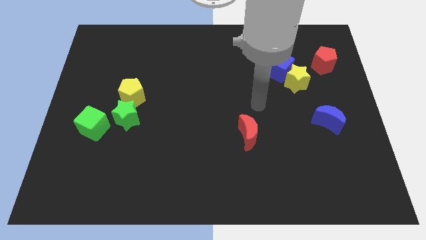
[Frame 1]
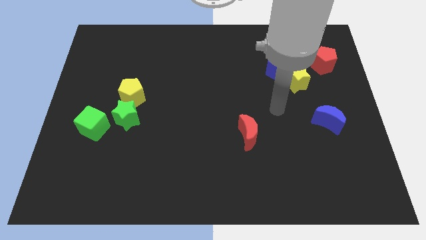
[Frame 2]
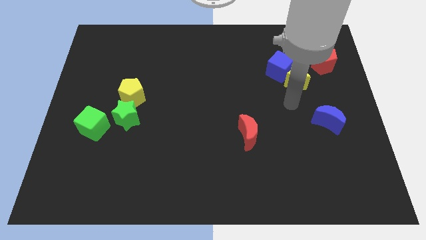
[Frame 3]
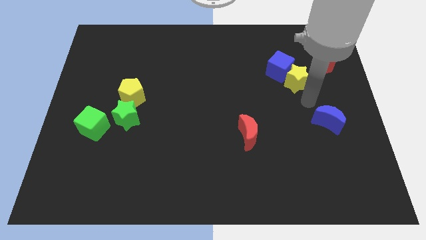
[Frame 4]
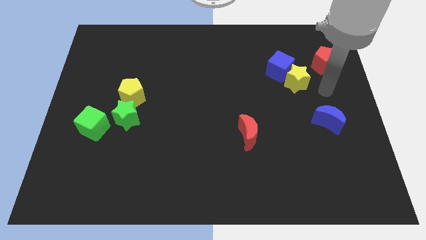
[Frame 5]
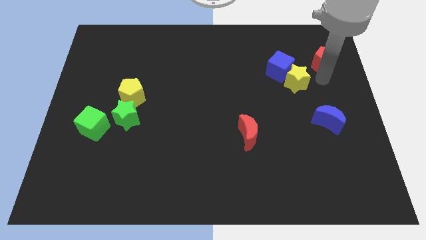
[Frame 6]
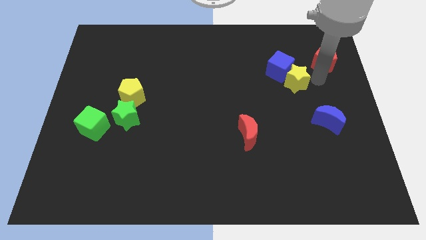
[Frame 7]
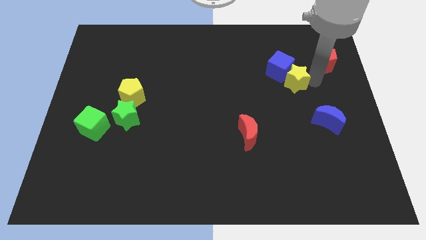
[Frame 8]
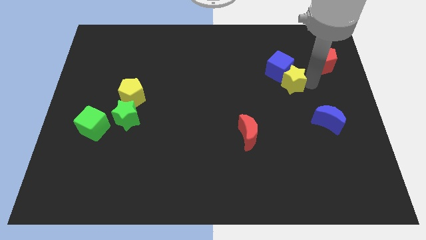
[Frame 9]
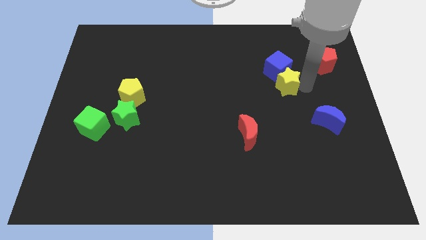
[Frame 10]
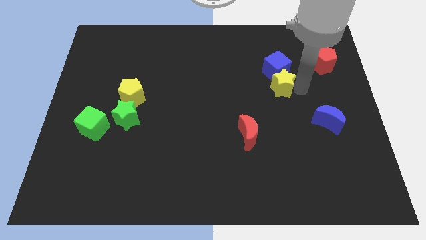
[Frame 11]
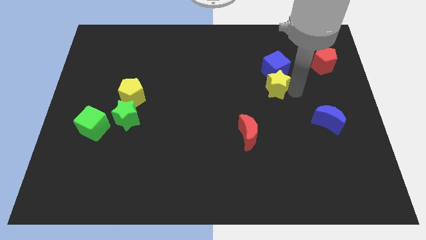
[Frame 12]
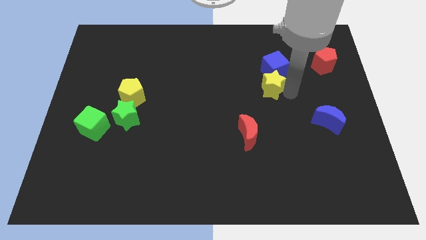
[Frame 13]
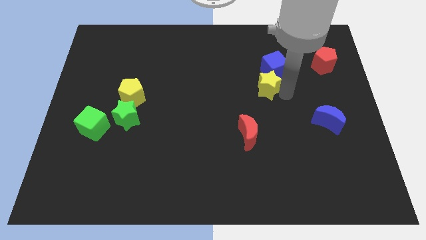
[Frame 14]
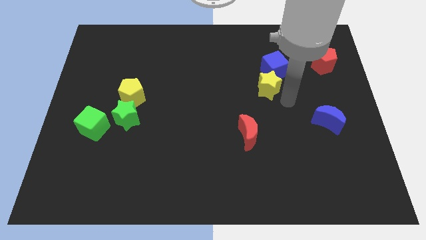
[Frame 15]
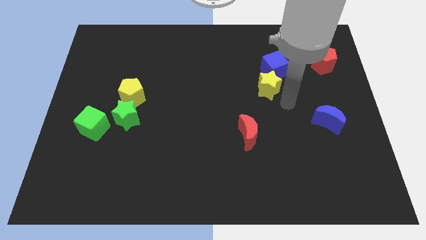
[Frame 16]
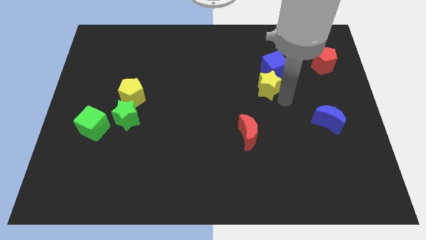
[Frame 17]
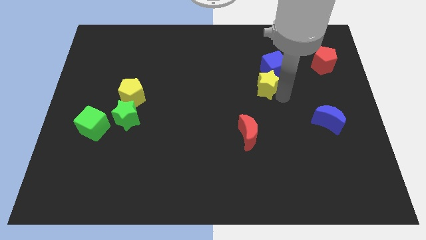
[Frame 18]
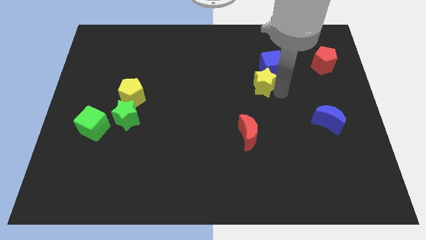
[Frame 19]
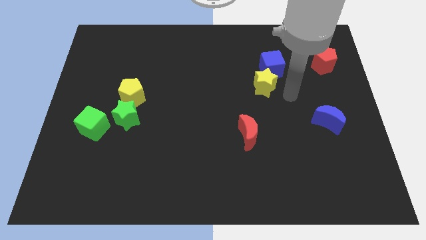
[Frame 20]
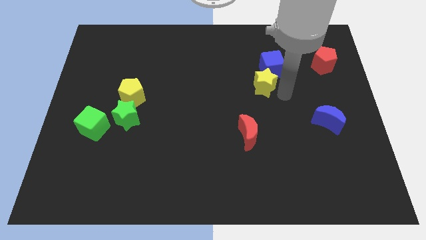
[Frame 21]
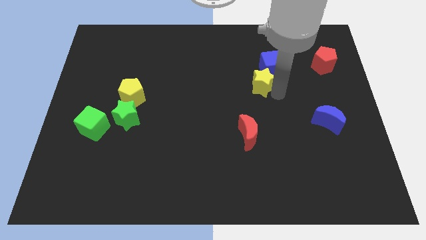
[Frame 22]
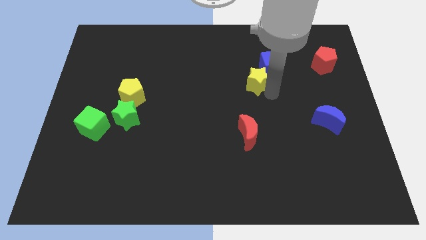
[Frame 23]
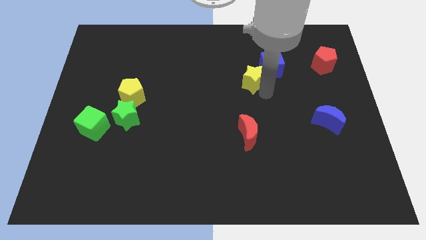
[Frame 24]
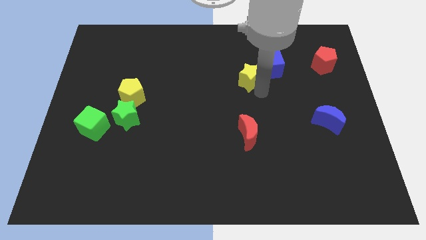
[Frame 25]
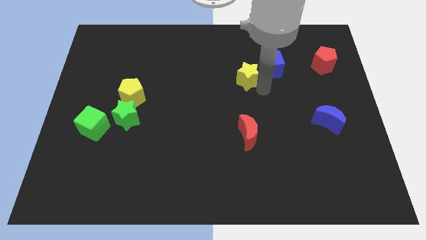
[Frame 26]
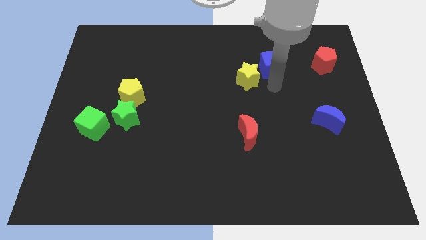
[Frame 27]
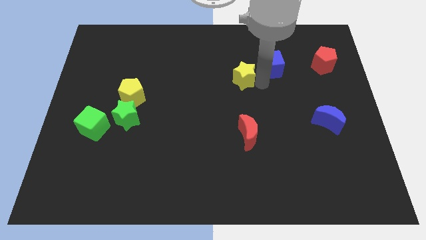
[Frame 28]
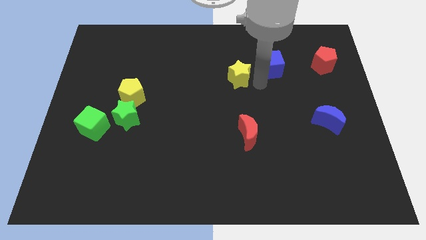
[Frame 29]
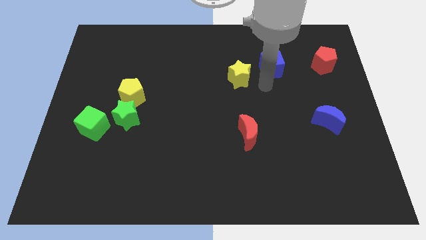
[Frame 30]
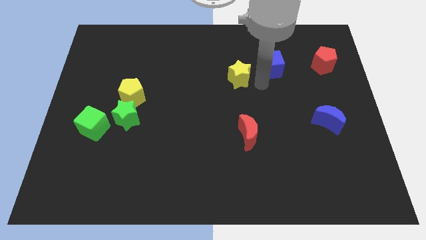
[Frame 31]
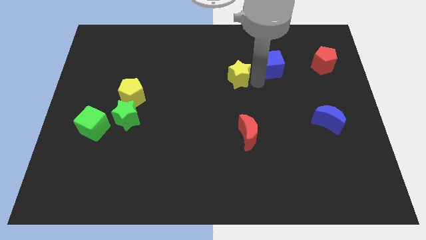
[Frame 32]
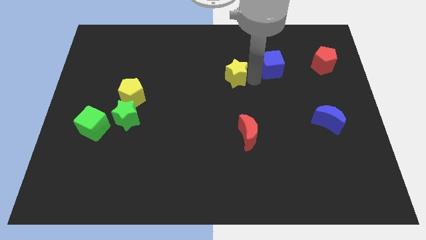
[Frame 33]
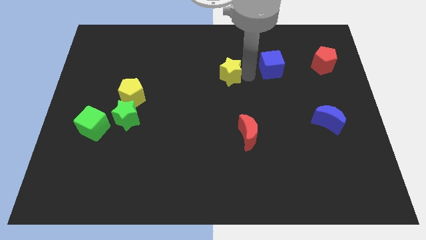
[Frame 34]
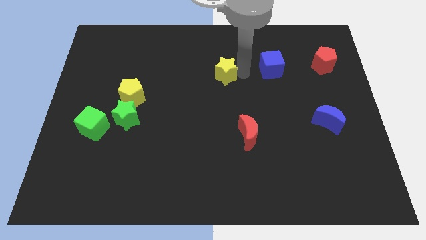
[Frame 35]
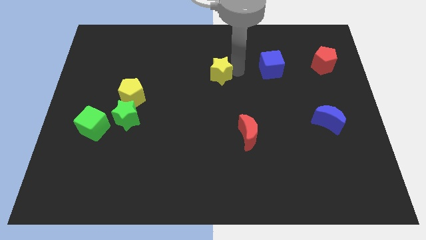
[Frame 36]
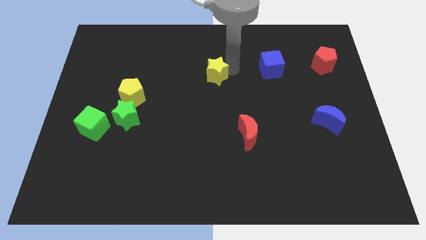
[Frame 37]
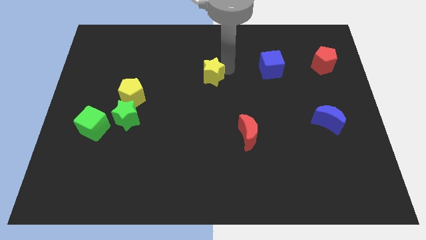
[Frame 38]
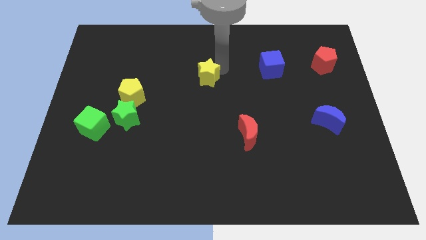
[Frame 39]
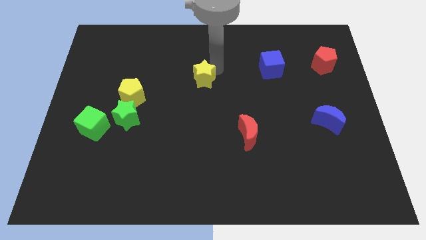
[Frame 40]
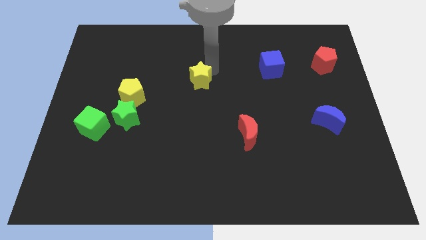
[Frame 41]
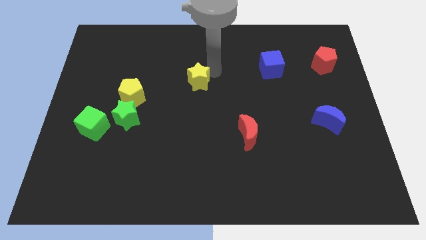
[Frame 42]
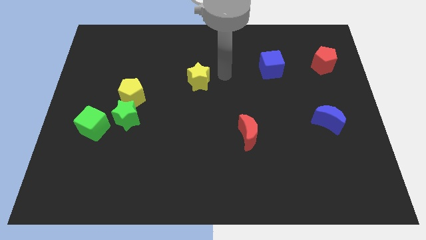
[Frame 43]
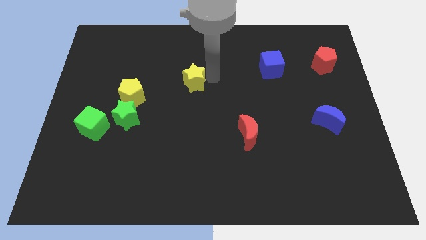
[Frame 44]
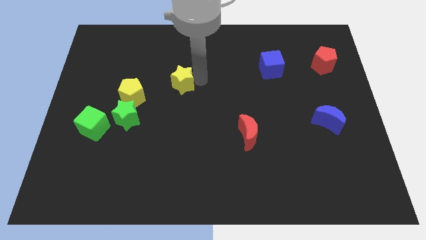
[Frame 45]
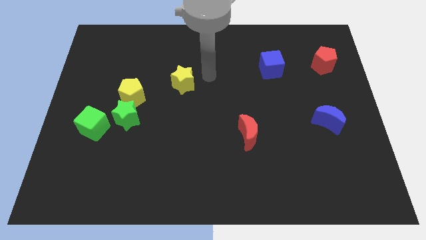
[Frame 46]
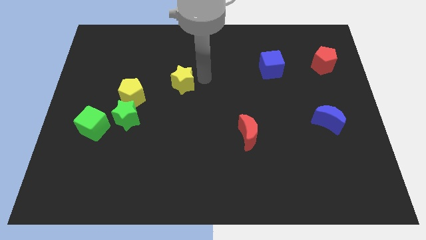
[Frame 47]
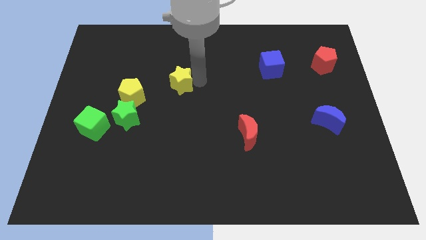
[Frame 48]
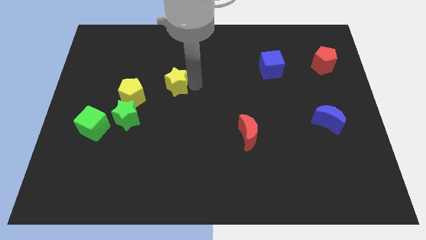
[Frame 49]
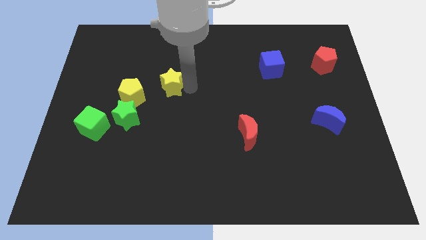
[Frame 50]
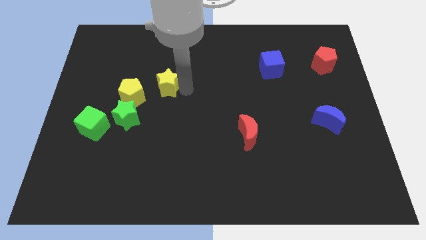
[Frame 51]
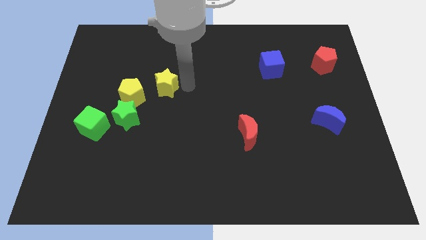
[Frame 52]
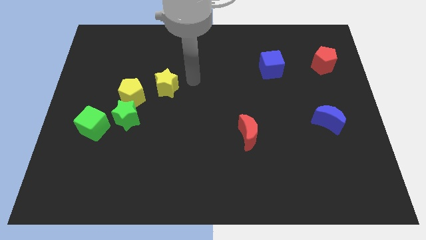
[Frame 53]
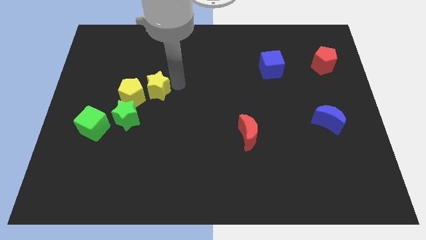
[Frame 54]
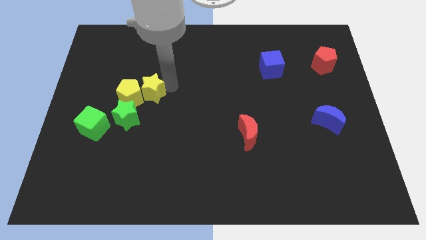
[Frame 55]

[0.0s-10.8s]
push the yellow star next to the yellow pentagon

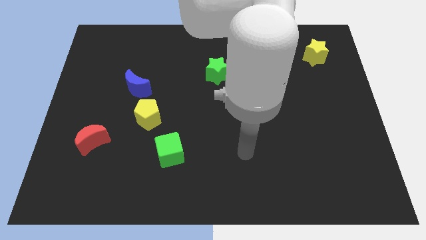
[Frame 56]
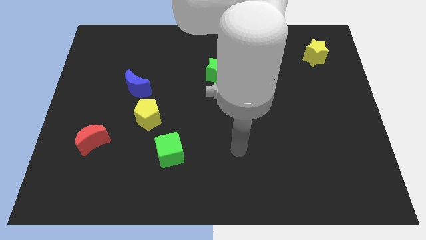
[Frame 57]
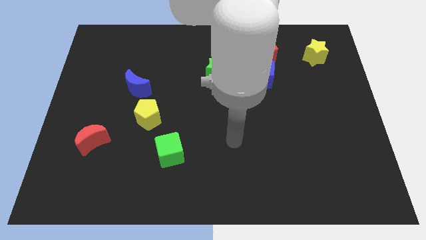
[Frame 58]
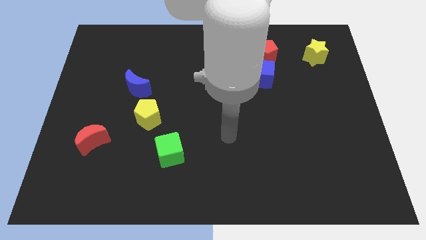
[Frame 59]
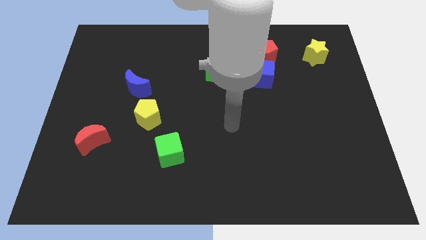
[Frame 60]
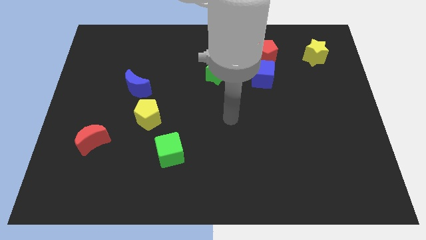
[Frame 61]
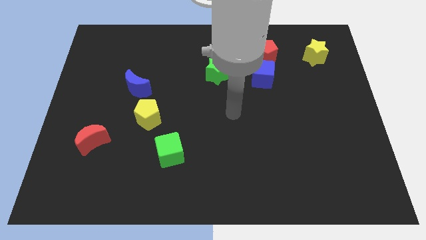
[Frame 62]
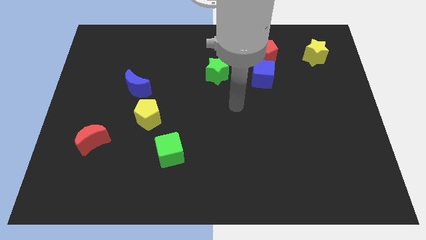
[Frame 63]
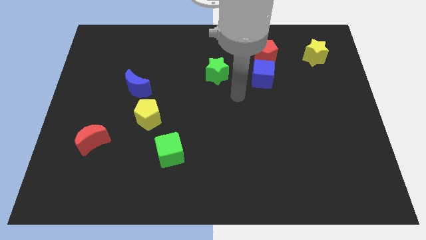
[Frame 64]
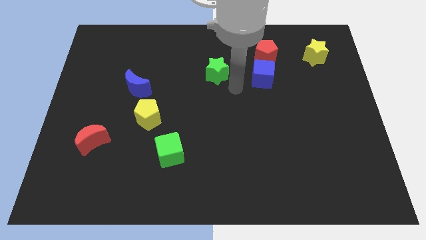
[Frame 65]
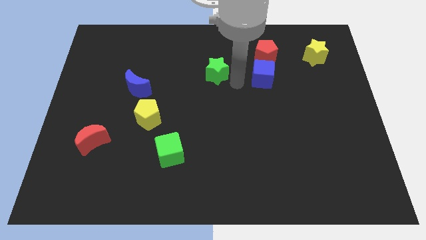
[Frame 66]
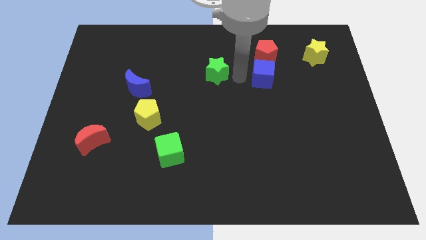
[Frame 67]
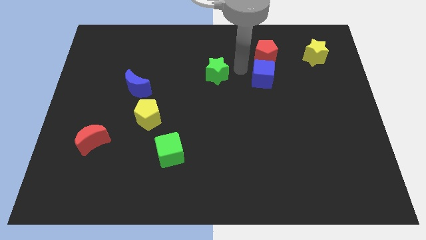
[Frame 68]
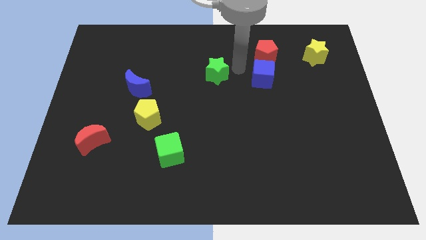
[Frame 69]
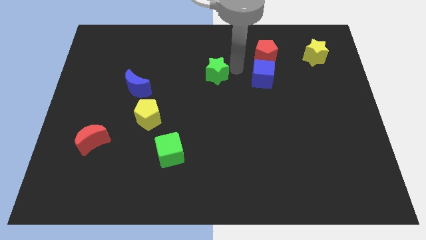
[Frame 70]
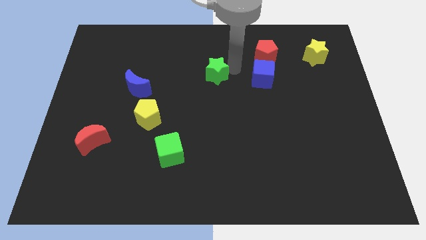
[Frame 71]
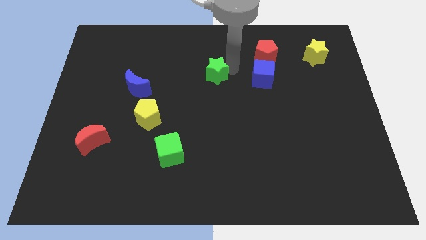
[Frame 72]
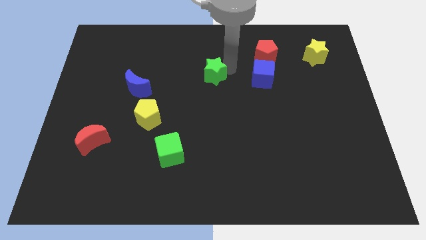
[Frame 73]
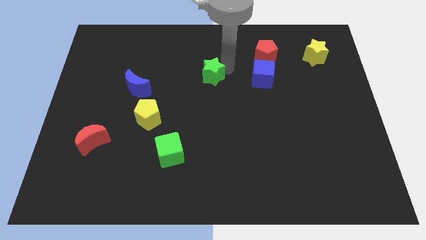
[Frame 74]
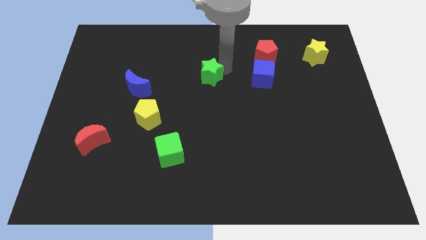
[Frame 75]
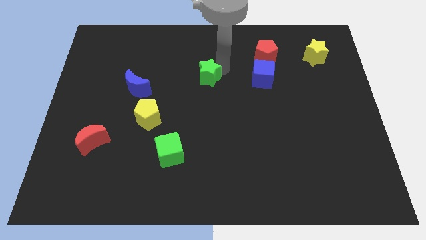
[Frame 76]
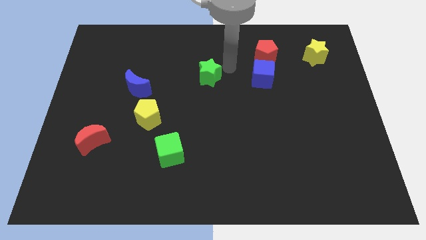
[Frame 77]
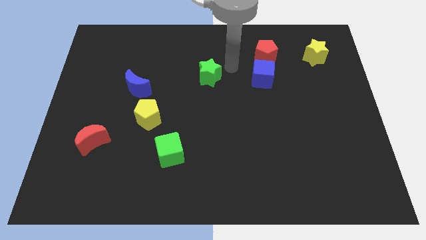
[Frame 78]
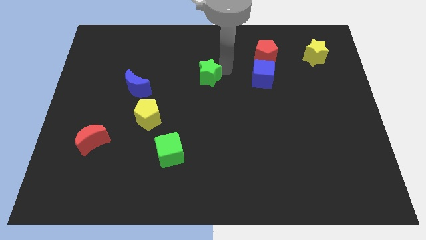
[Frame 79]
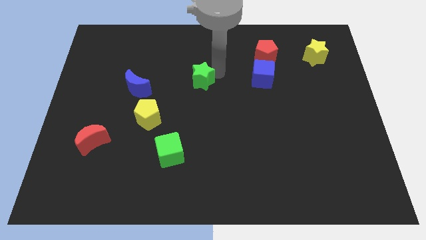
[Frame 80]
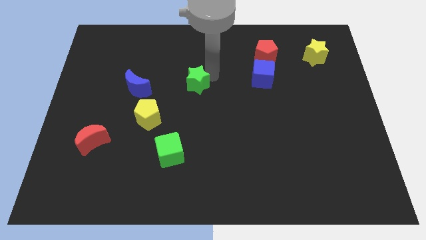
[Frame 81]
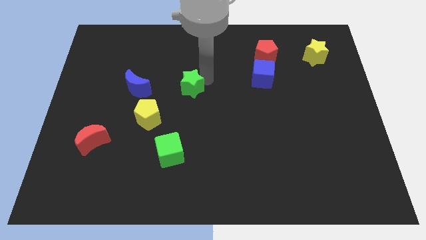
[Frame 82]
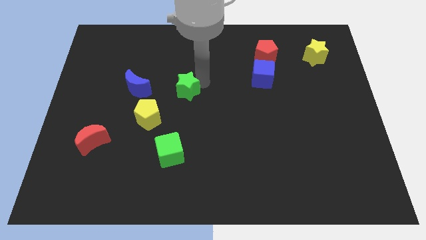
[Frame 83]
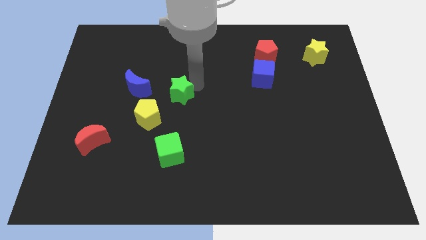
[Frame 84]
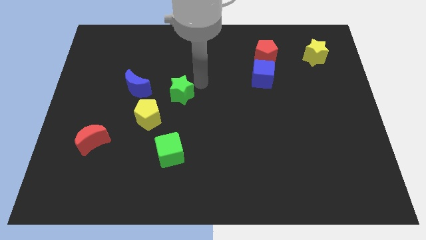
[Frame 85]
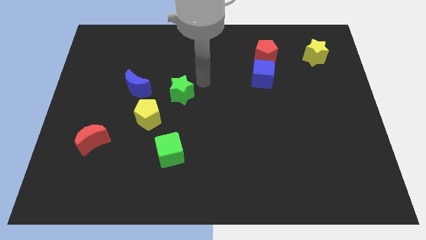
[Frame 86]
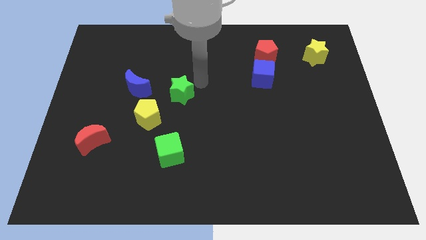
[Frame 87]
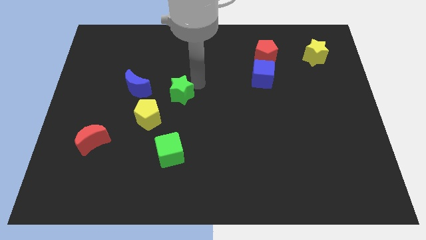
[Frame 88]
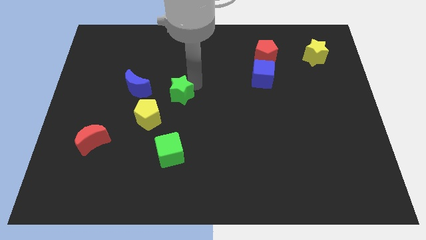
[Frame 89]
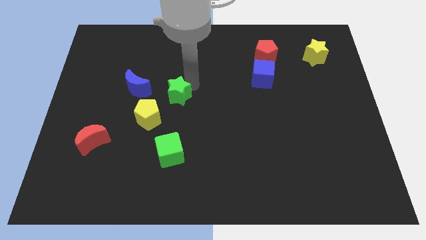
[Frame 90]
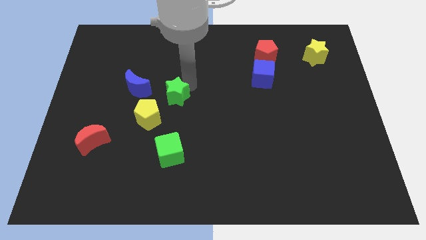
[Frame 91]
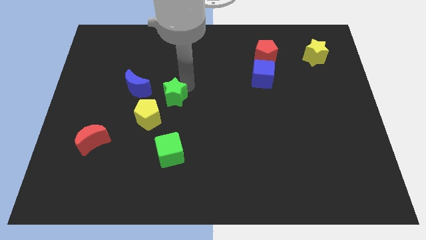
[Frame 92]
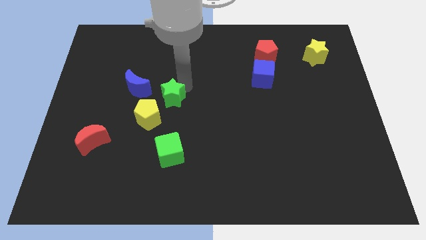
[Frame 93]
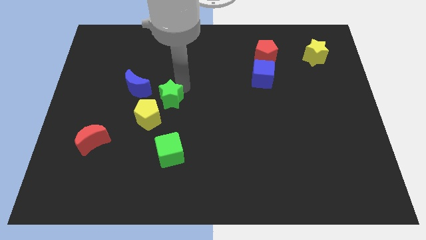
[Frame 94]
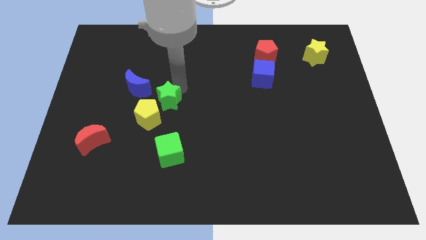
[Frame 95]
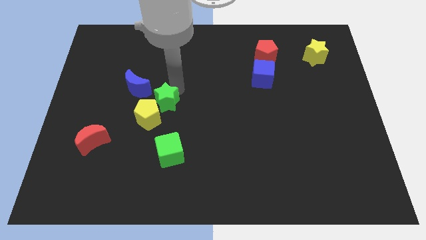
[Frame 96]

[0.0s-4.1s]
push the green star close to the yellow pentagon
